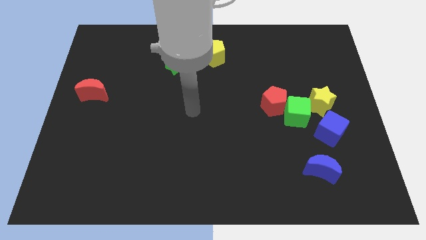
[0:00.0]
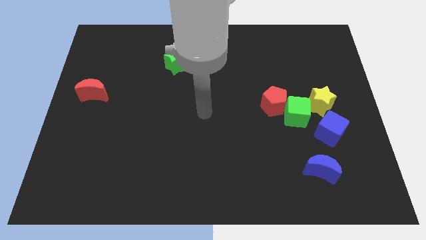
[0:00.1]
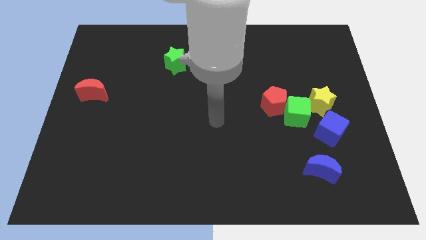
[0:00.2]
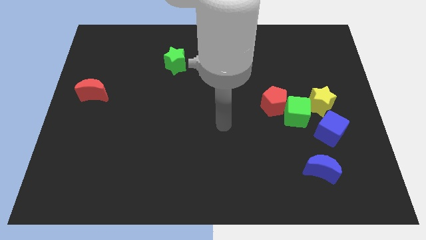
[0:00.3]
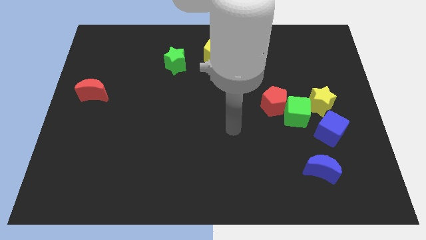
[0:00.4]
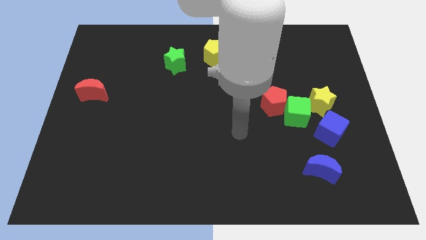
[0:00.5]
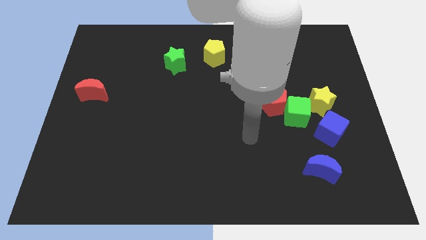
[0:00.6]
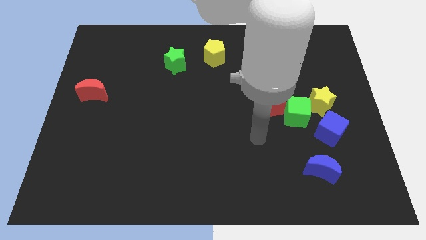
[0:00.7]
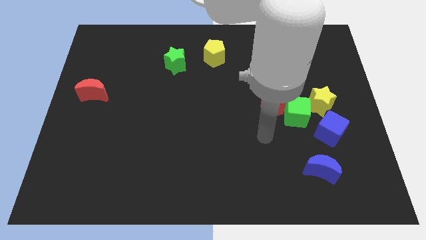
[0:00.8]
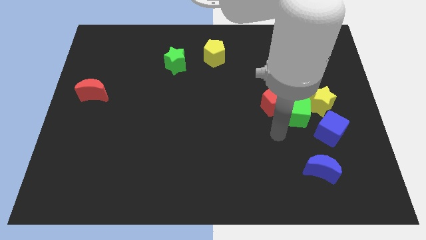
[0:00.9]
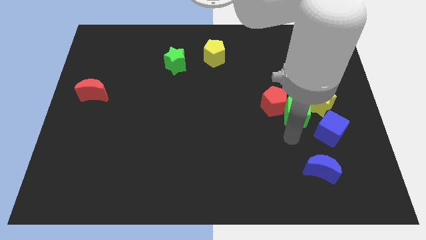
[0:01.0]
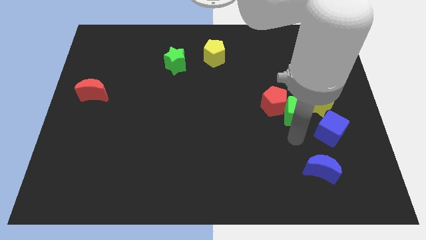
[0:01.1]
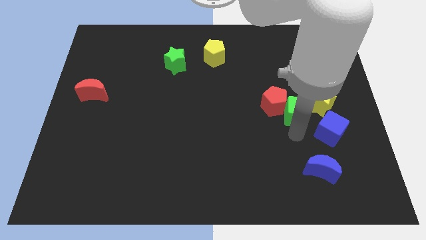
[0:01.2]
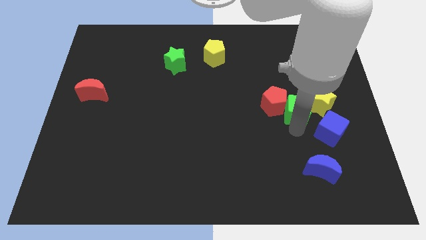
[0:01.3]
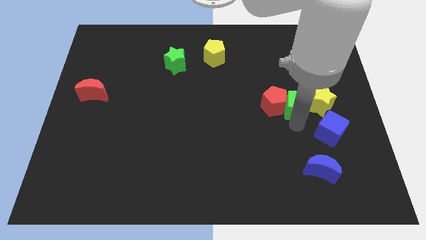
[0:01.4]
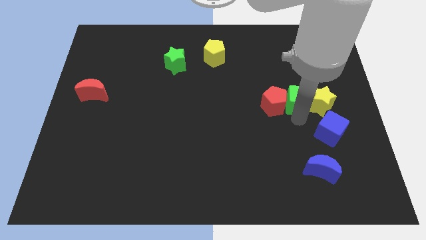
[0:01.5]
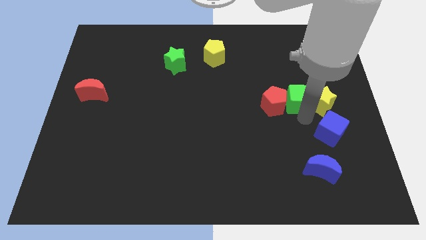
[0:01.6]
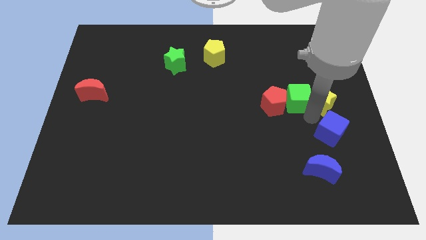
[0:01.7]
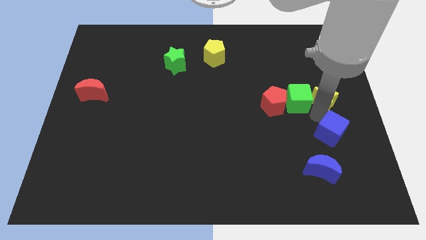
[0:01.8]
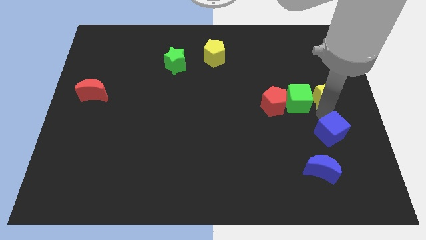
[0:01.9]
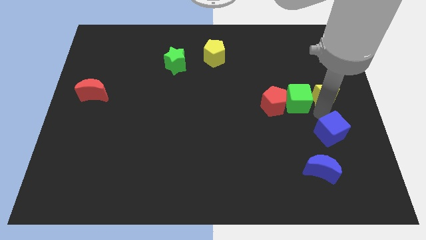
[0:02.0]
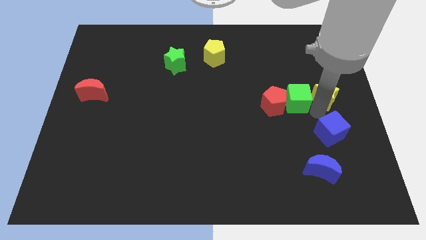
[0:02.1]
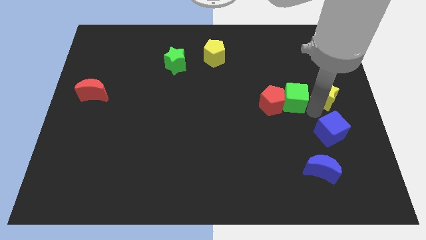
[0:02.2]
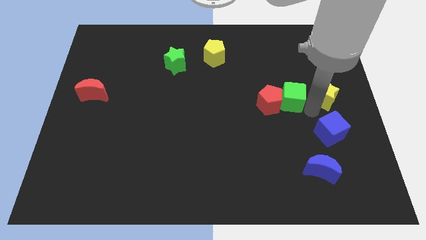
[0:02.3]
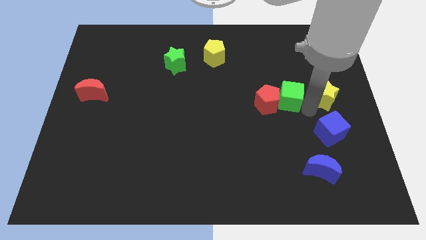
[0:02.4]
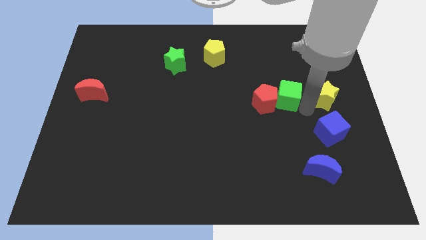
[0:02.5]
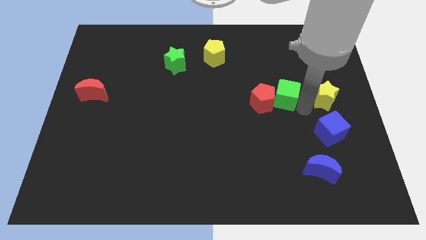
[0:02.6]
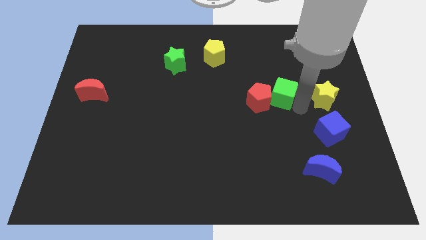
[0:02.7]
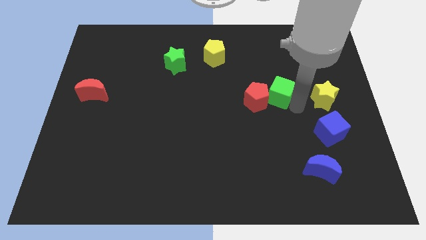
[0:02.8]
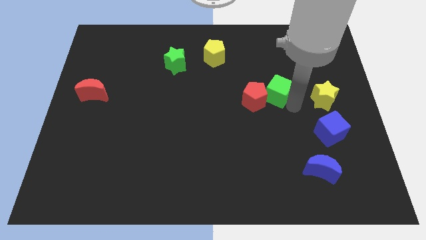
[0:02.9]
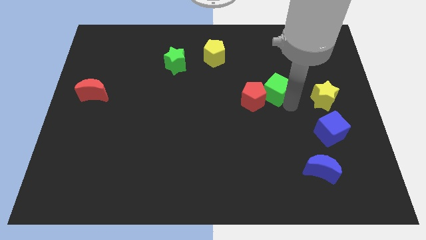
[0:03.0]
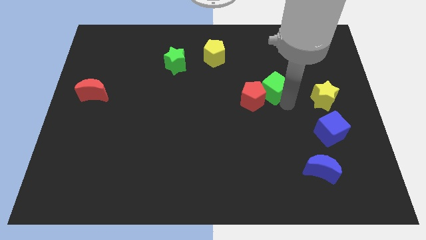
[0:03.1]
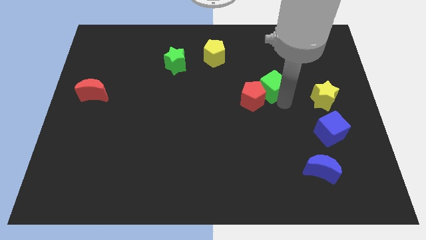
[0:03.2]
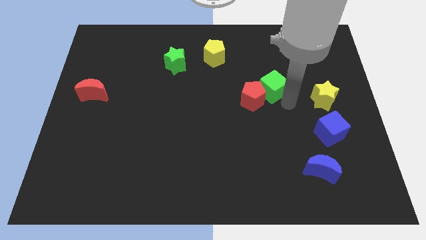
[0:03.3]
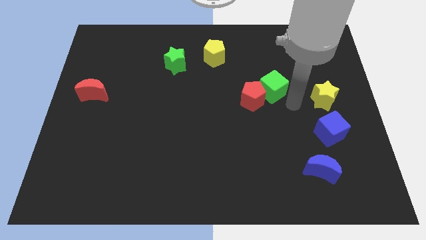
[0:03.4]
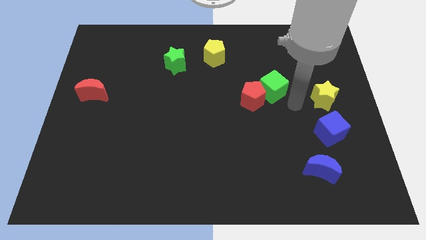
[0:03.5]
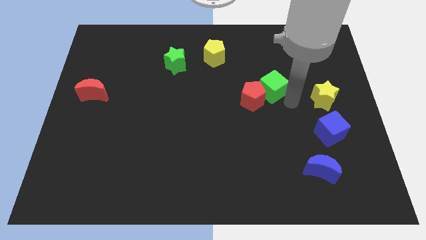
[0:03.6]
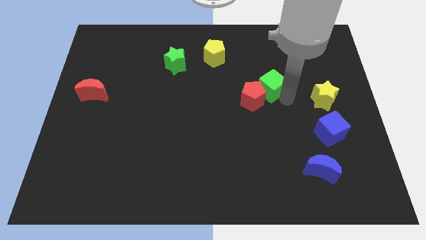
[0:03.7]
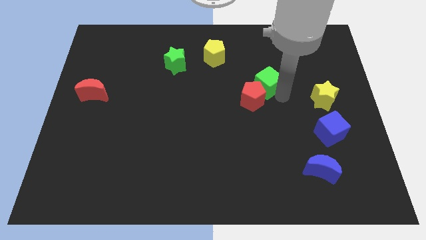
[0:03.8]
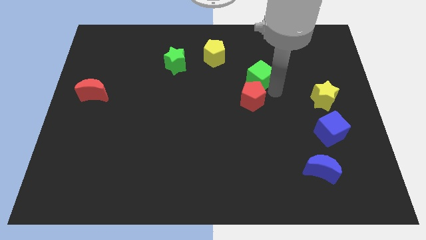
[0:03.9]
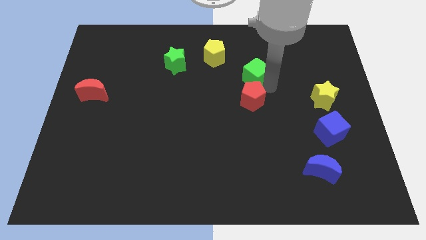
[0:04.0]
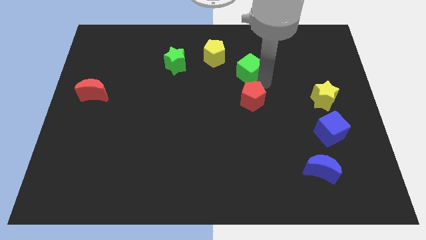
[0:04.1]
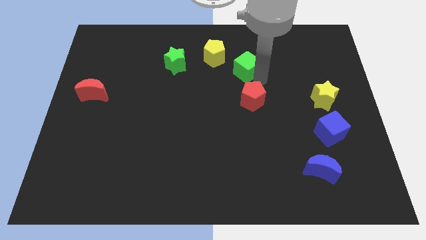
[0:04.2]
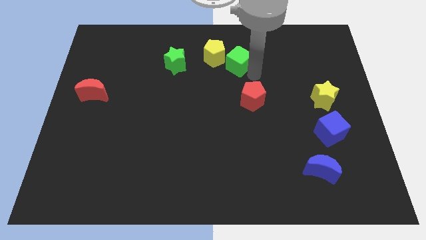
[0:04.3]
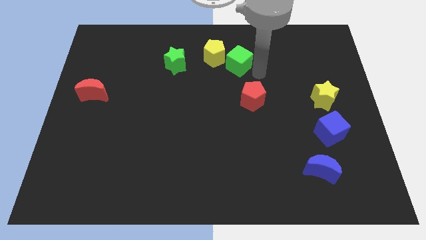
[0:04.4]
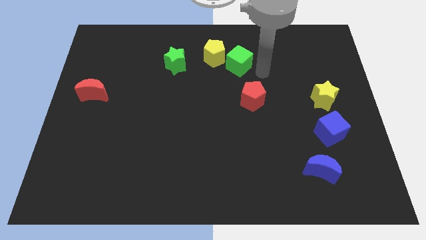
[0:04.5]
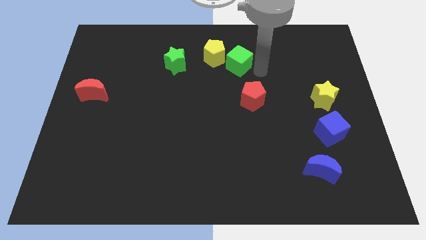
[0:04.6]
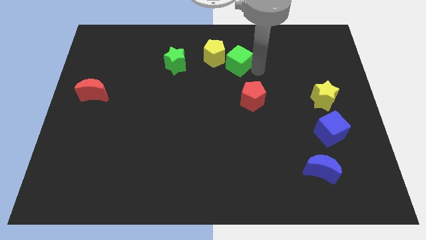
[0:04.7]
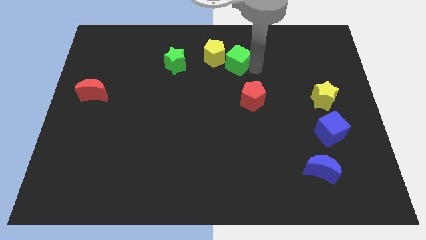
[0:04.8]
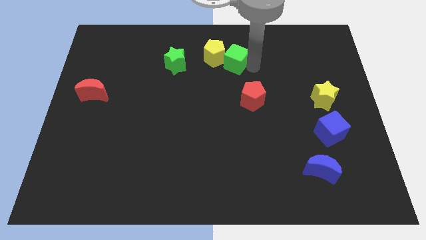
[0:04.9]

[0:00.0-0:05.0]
slide the green cube next to the yellow pentagon

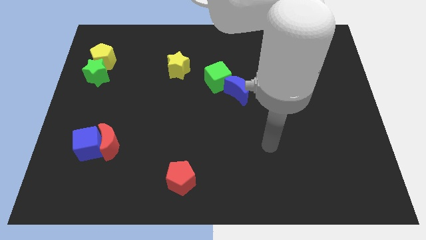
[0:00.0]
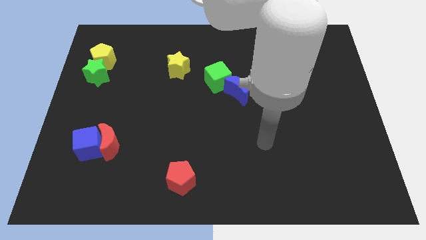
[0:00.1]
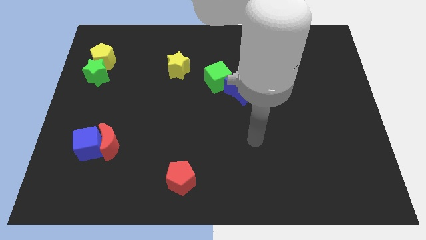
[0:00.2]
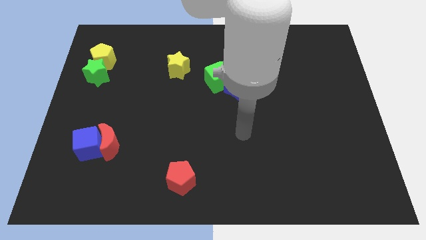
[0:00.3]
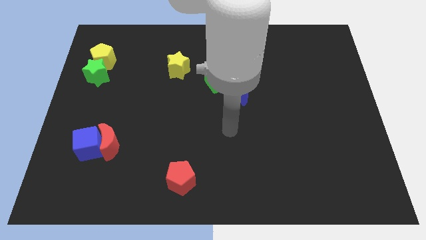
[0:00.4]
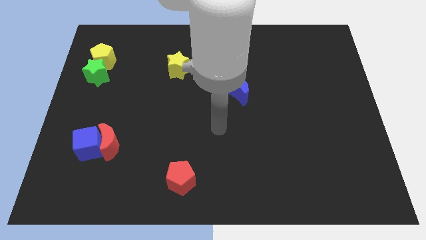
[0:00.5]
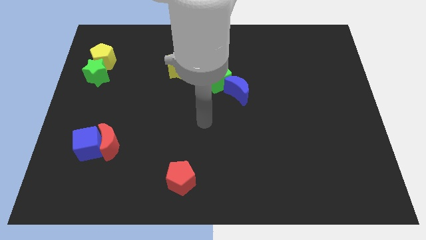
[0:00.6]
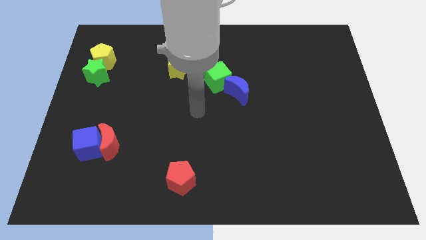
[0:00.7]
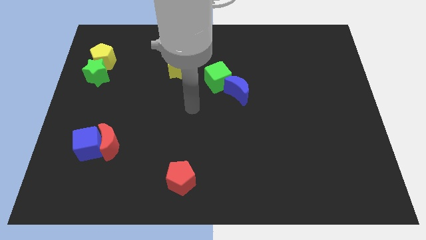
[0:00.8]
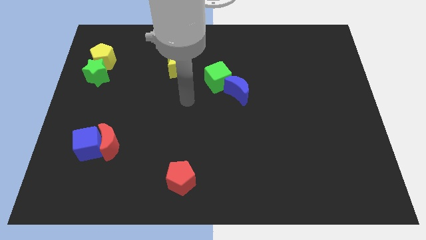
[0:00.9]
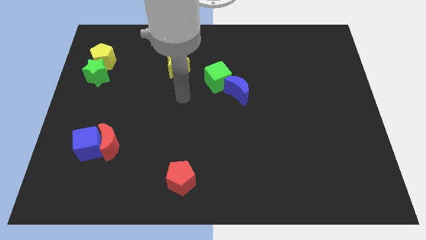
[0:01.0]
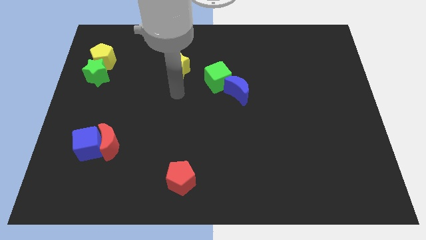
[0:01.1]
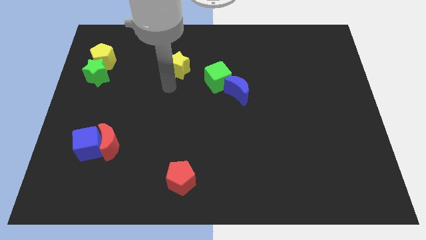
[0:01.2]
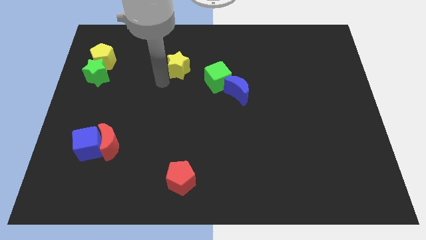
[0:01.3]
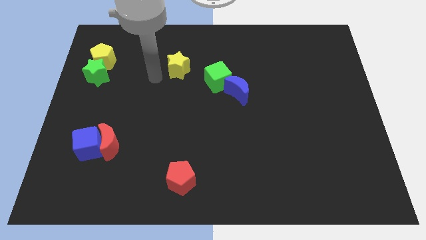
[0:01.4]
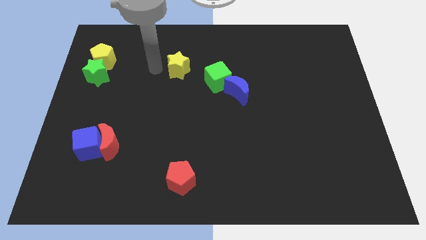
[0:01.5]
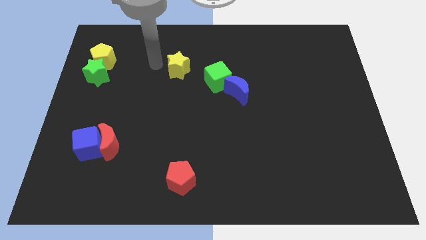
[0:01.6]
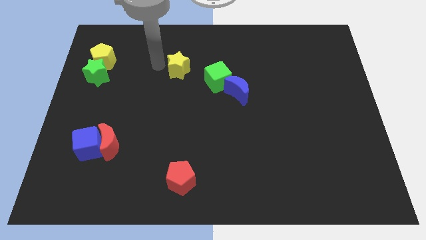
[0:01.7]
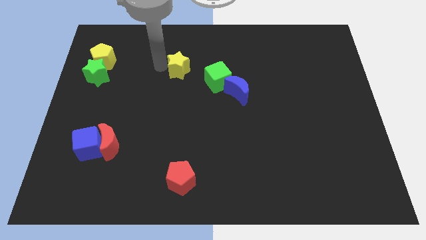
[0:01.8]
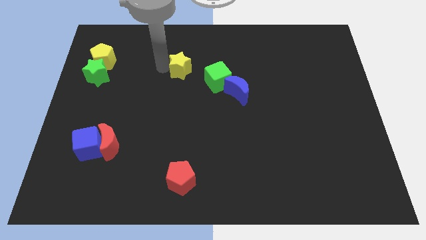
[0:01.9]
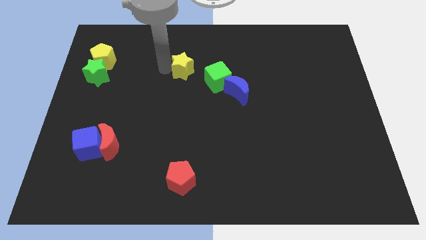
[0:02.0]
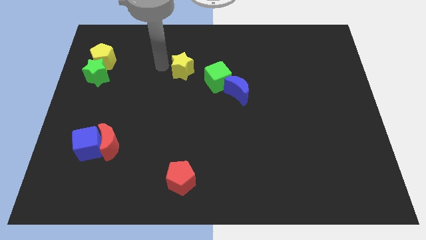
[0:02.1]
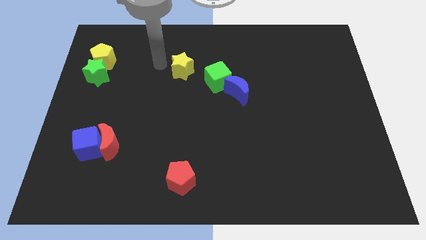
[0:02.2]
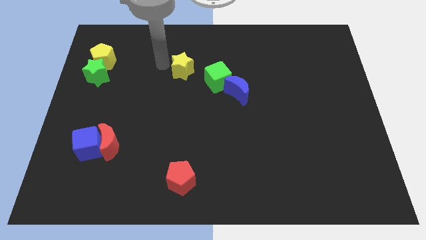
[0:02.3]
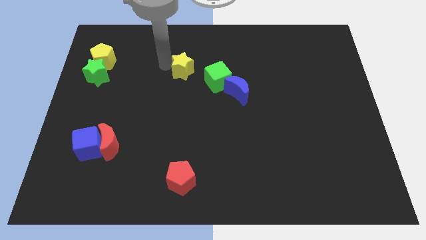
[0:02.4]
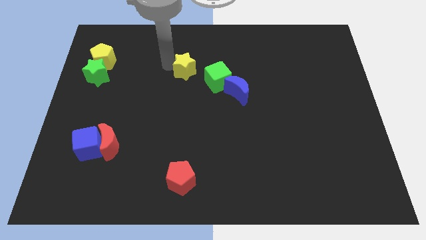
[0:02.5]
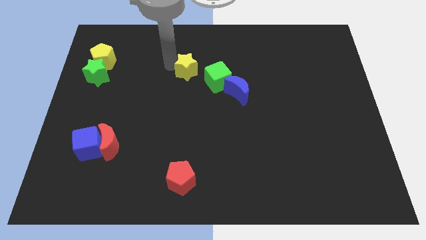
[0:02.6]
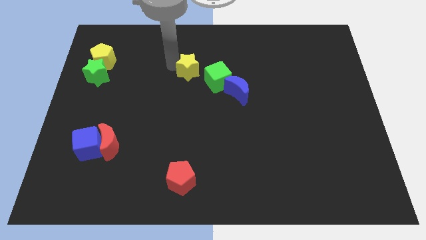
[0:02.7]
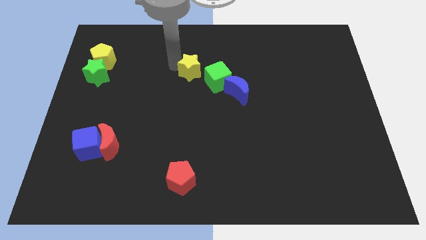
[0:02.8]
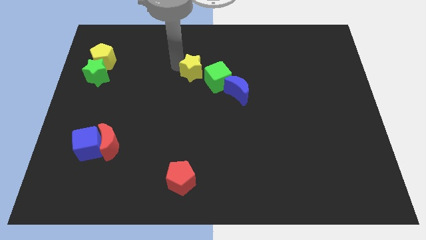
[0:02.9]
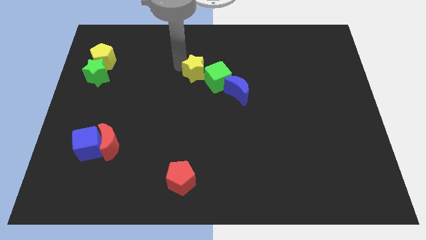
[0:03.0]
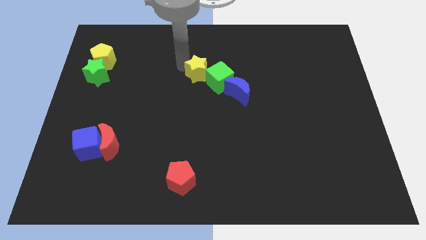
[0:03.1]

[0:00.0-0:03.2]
push the yellow star close to the green cube
